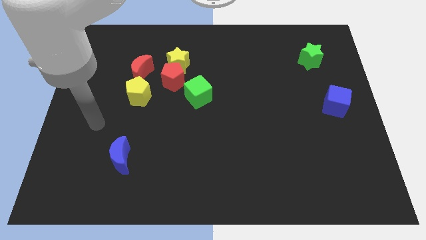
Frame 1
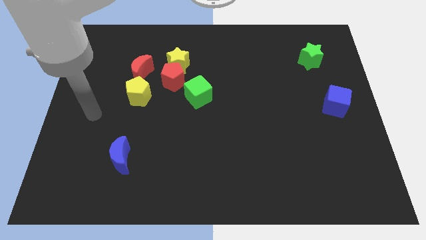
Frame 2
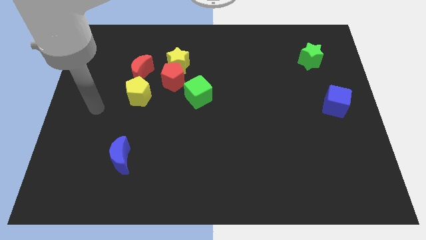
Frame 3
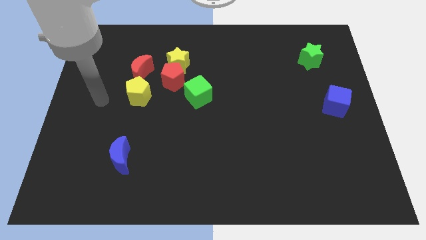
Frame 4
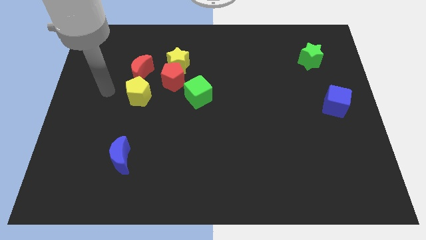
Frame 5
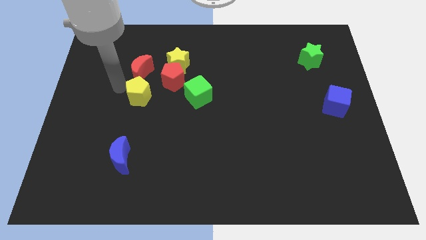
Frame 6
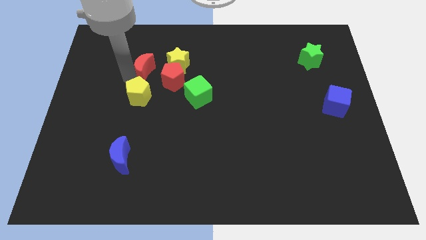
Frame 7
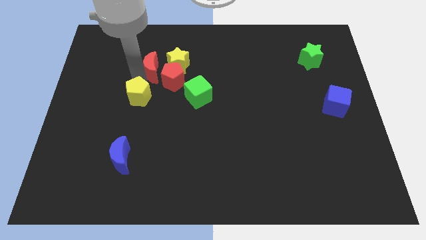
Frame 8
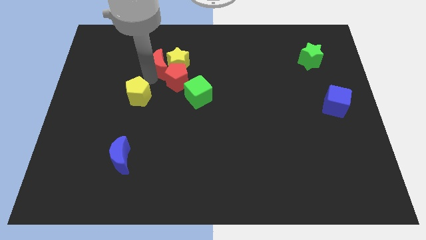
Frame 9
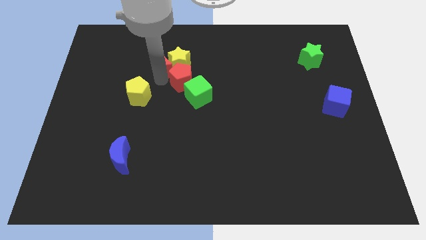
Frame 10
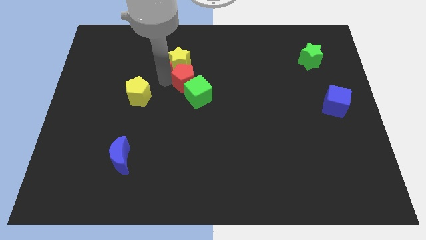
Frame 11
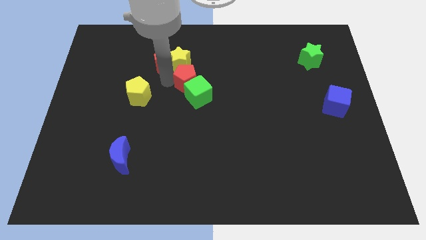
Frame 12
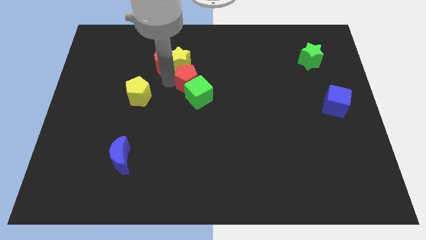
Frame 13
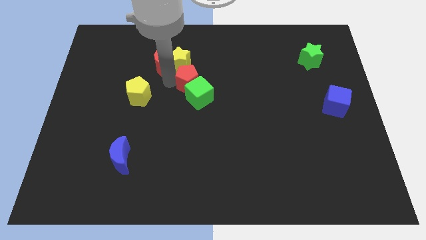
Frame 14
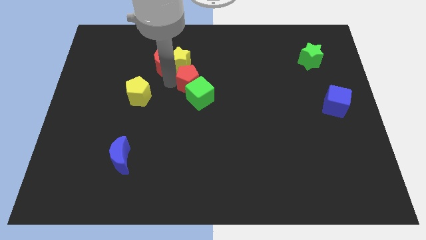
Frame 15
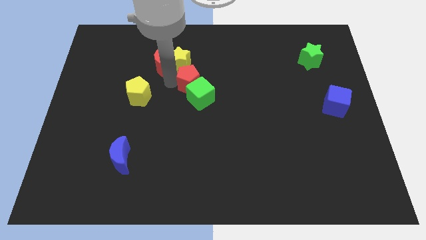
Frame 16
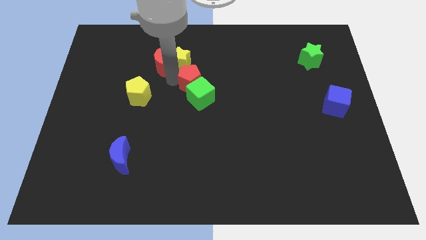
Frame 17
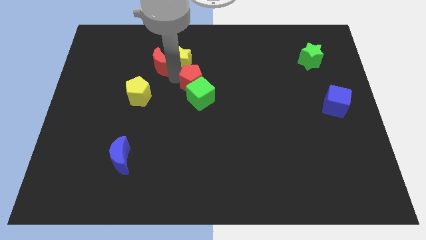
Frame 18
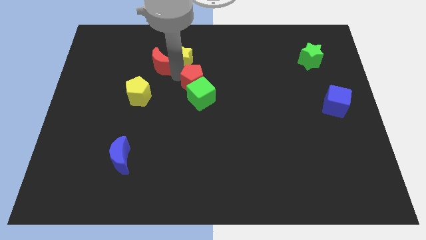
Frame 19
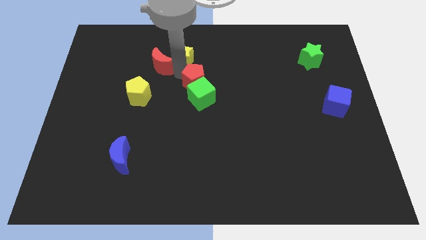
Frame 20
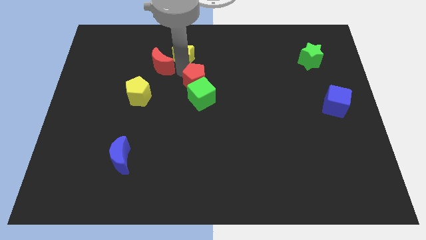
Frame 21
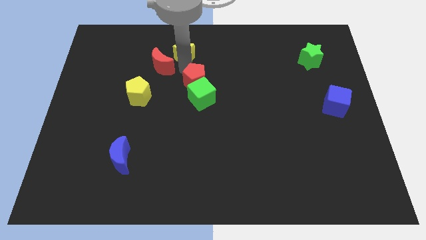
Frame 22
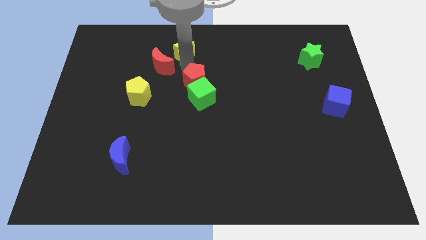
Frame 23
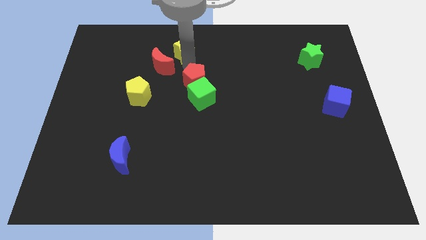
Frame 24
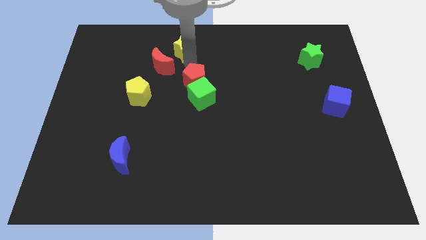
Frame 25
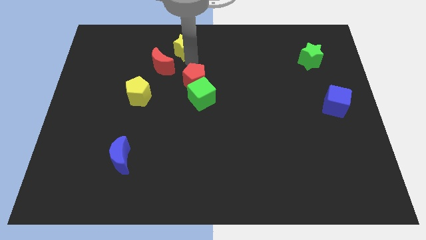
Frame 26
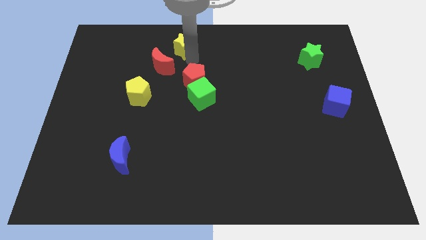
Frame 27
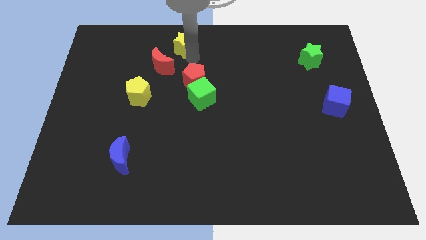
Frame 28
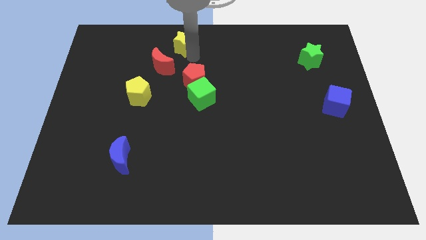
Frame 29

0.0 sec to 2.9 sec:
move the yellow star away from the red pentagon and red moon

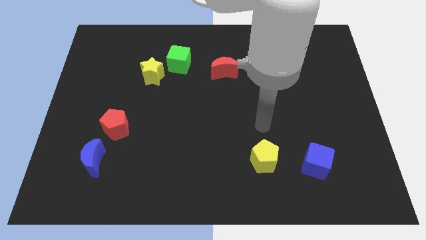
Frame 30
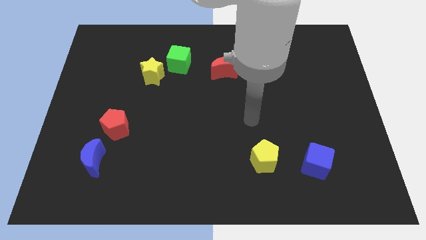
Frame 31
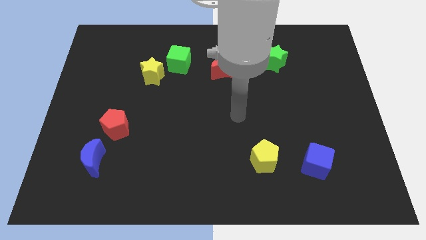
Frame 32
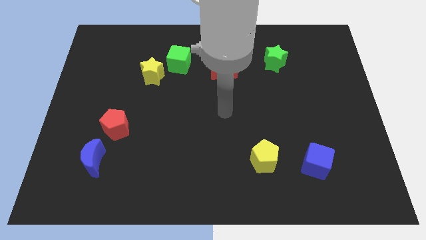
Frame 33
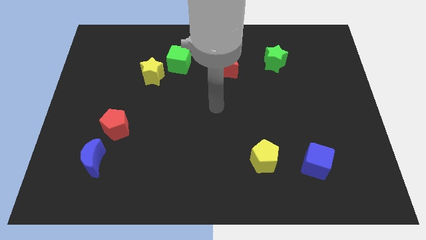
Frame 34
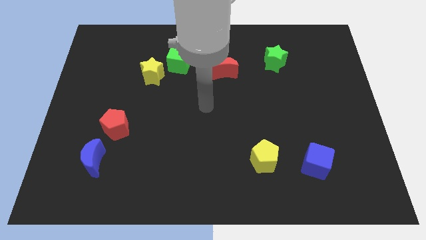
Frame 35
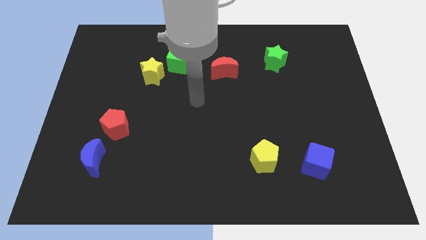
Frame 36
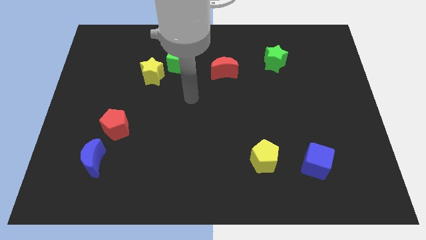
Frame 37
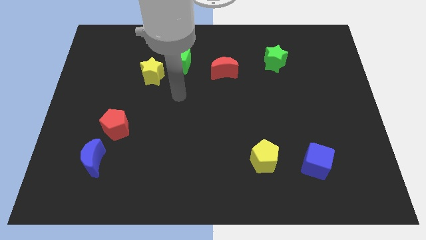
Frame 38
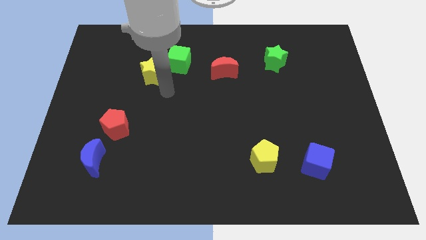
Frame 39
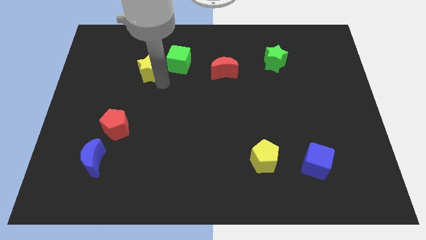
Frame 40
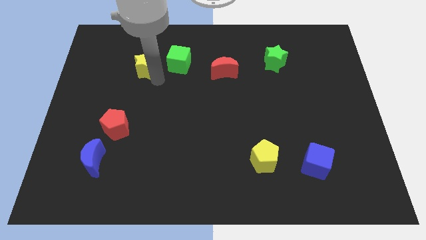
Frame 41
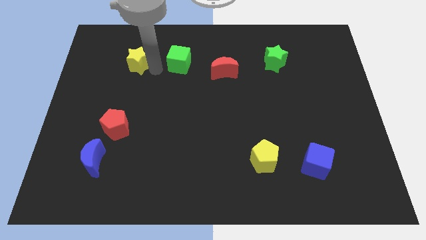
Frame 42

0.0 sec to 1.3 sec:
separate the green cube from the yellow star

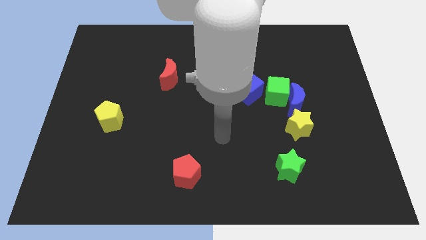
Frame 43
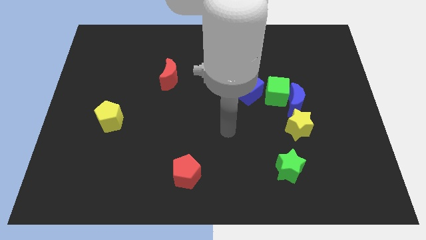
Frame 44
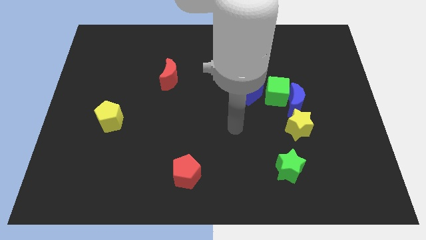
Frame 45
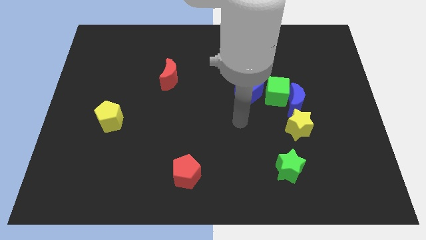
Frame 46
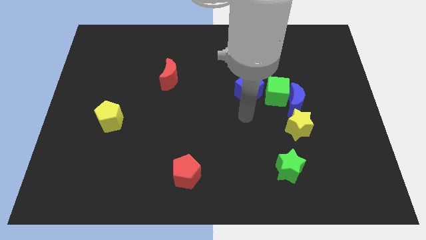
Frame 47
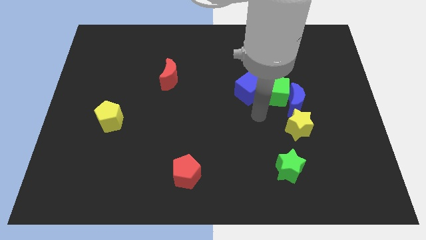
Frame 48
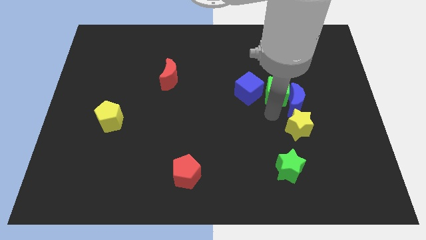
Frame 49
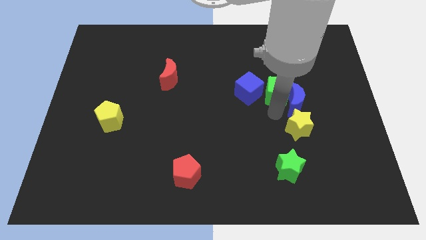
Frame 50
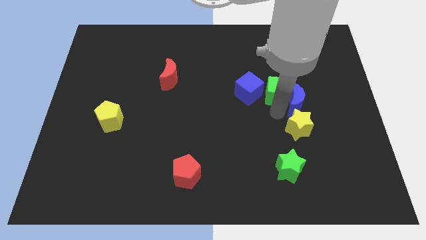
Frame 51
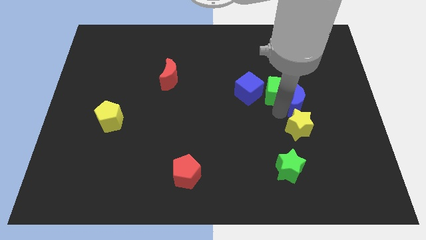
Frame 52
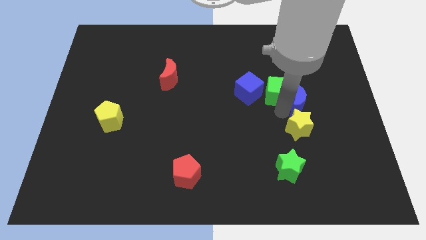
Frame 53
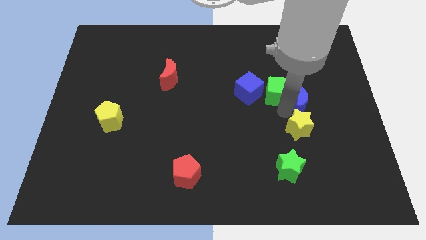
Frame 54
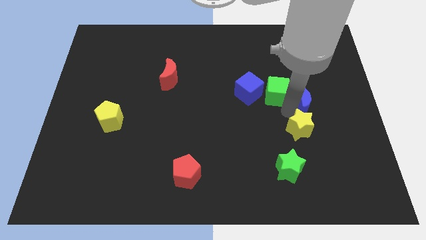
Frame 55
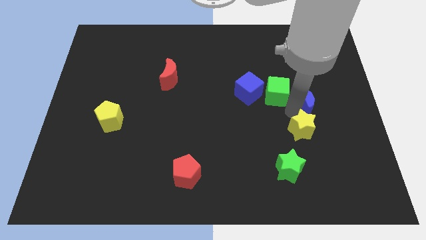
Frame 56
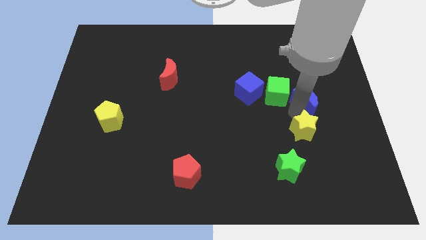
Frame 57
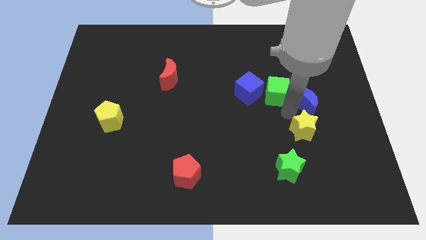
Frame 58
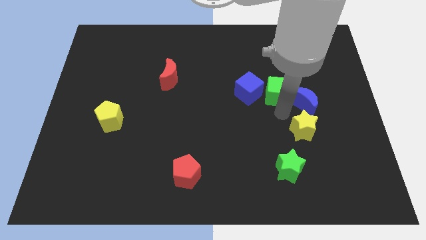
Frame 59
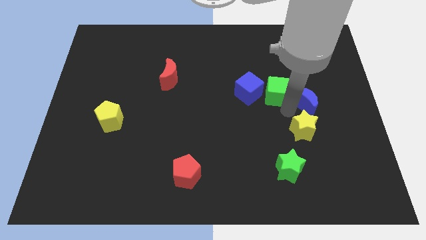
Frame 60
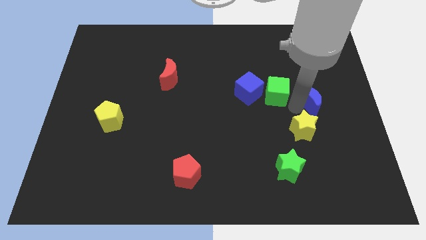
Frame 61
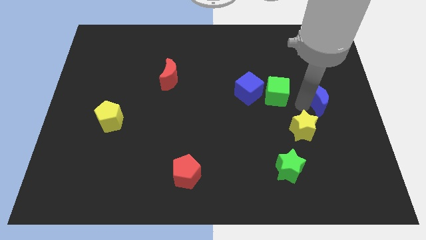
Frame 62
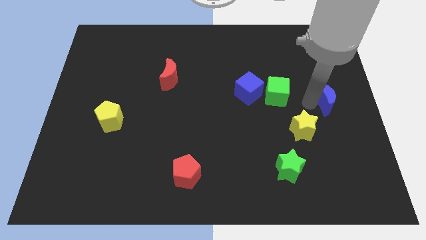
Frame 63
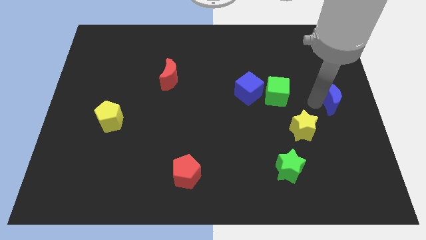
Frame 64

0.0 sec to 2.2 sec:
pull the blue moon apart from the green cube and yellow star

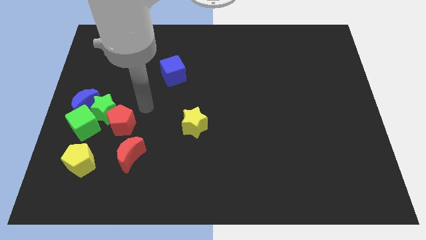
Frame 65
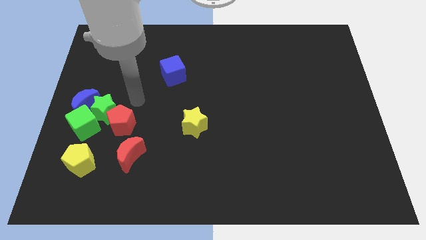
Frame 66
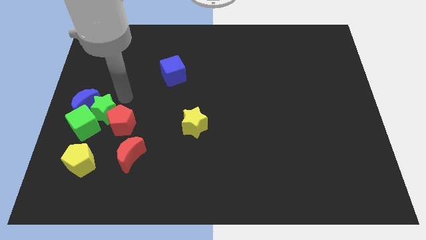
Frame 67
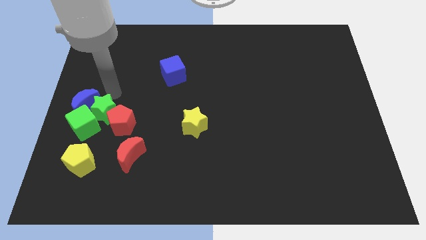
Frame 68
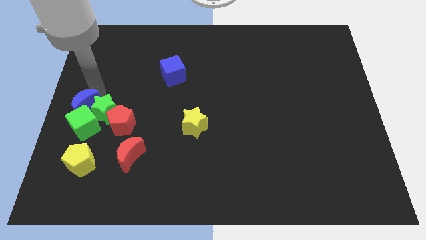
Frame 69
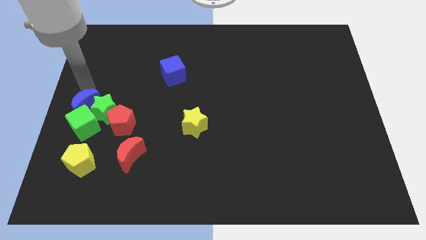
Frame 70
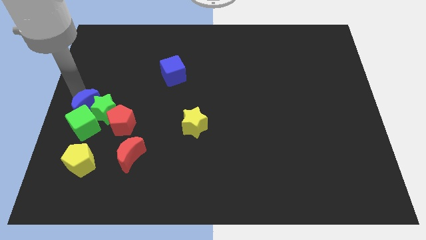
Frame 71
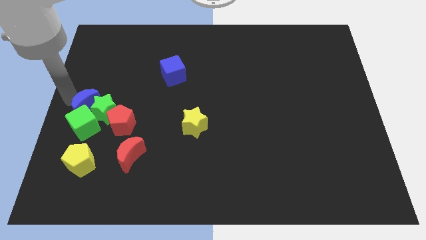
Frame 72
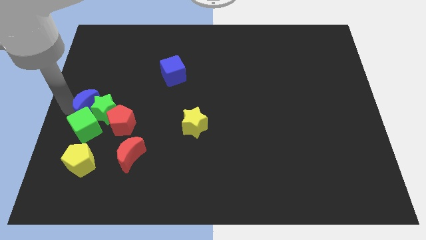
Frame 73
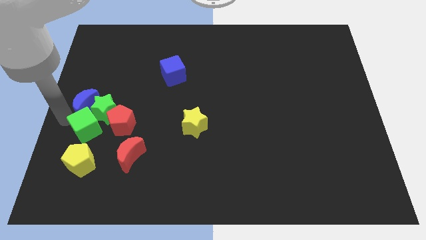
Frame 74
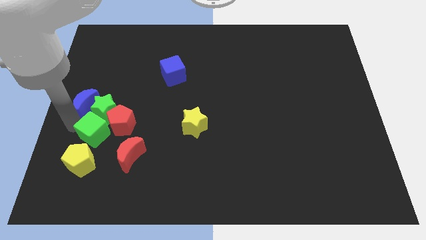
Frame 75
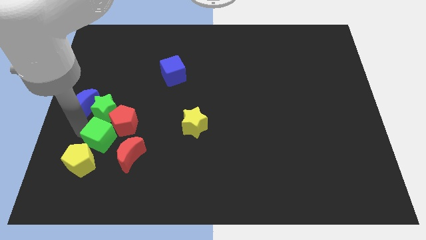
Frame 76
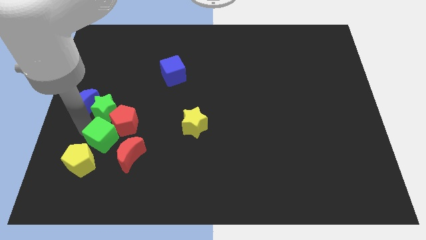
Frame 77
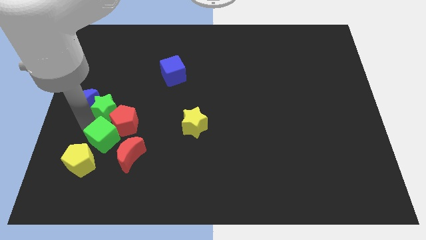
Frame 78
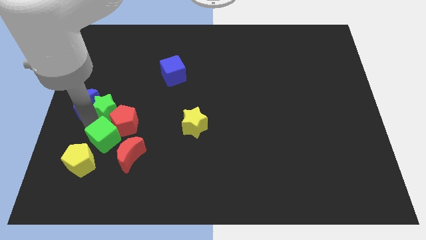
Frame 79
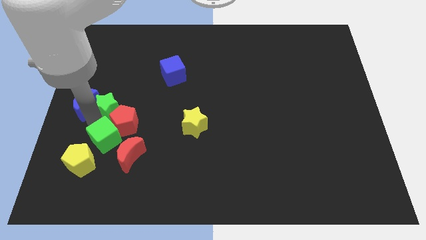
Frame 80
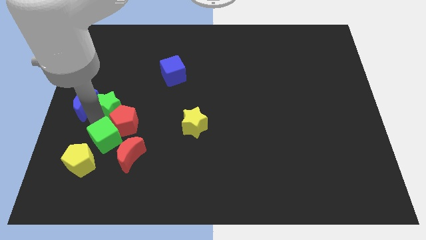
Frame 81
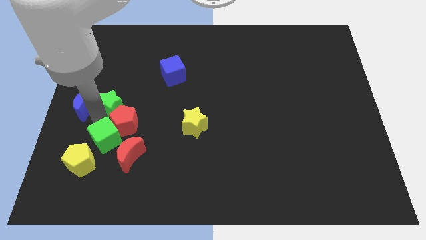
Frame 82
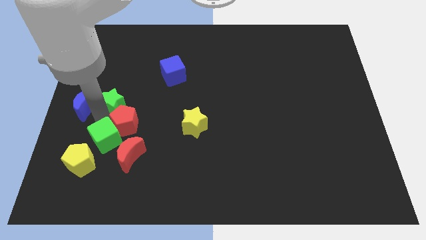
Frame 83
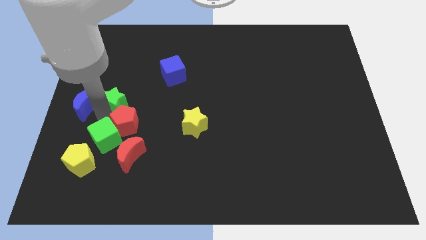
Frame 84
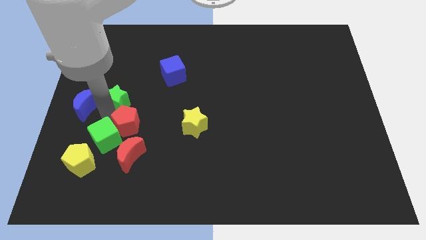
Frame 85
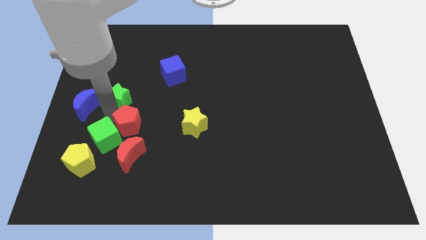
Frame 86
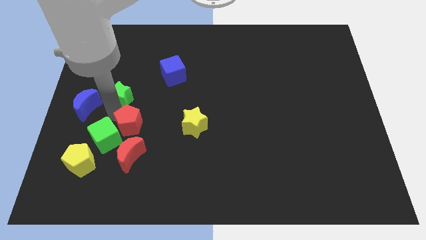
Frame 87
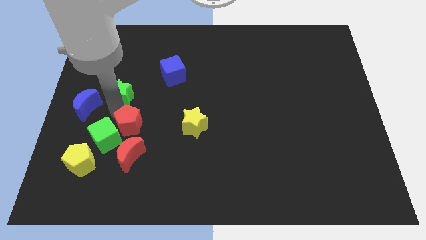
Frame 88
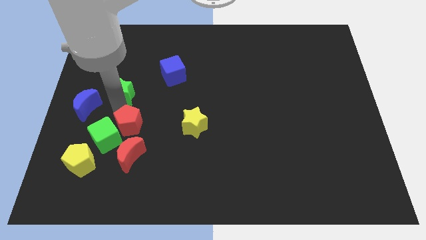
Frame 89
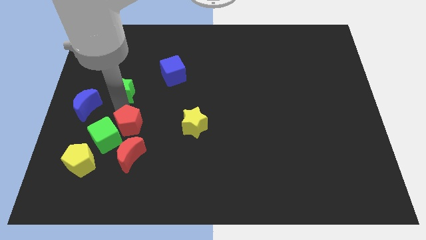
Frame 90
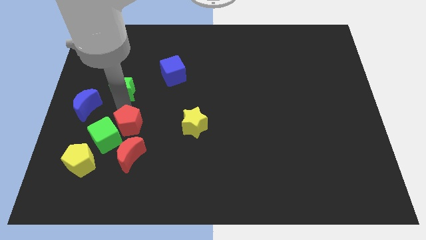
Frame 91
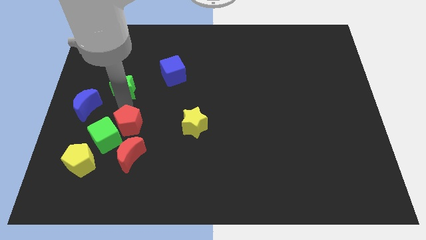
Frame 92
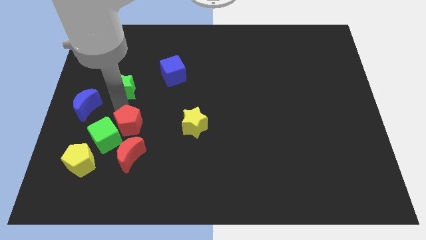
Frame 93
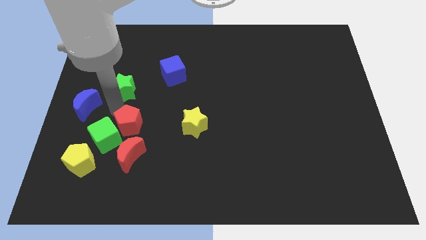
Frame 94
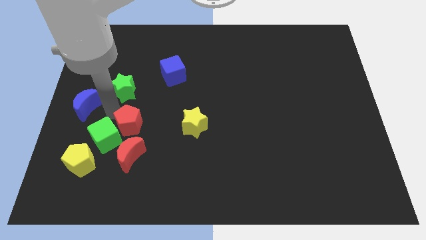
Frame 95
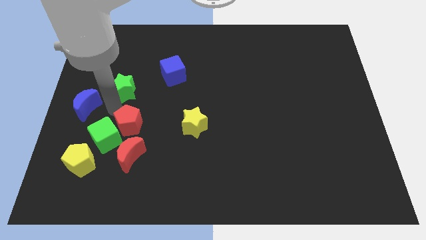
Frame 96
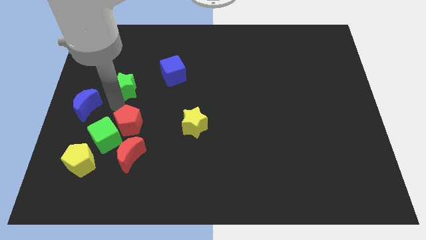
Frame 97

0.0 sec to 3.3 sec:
pull the green star apart from the clump
